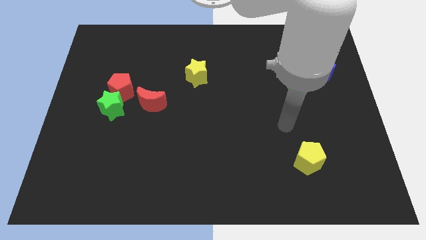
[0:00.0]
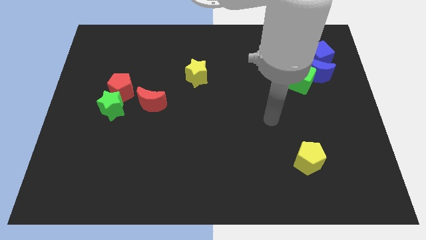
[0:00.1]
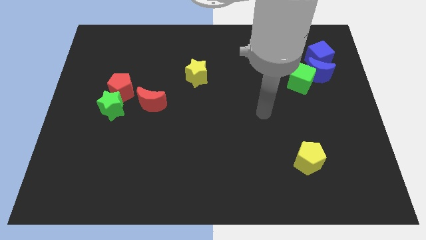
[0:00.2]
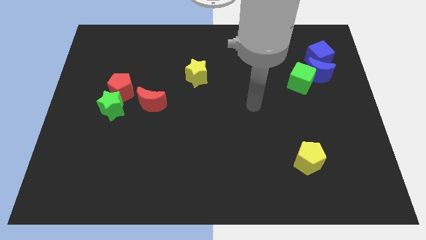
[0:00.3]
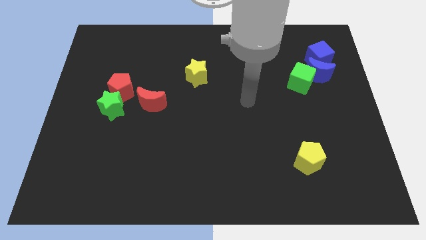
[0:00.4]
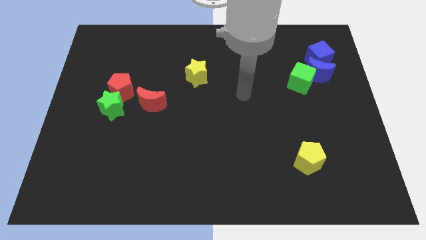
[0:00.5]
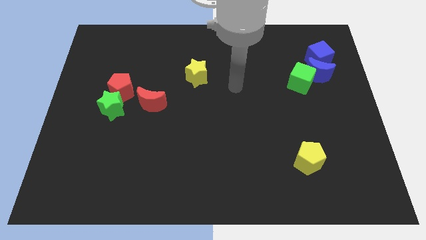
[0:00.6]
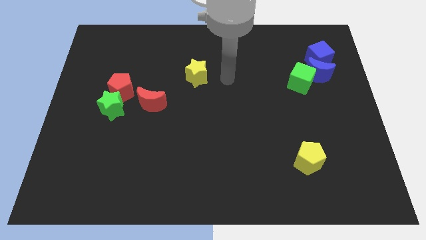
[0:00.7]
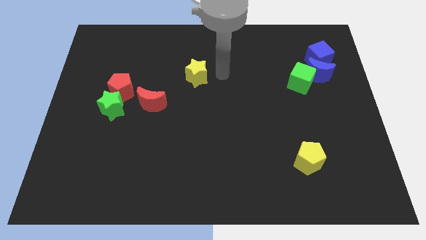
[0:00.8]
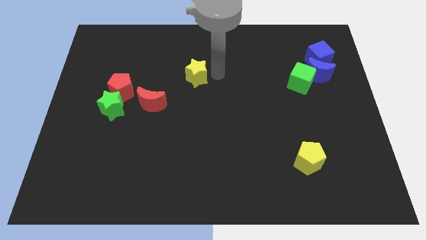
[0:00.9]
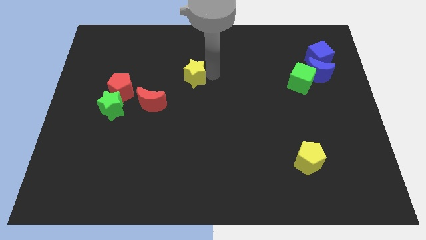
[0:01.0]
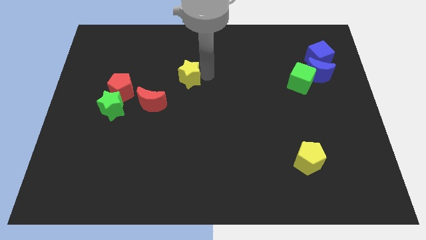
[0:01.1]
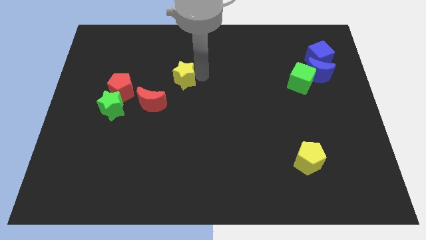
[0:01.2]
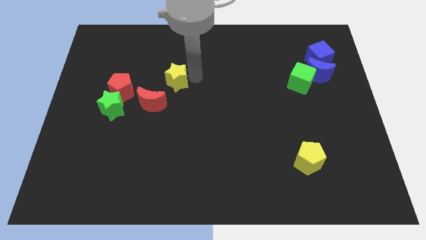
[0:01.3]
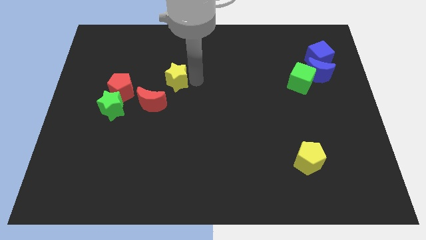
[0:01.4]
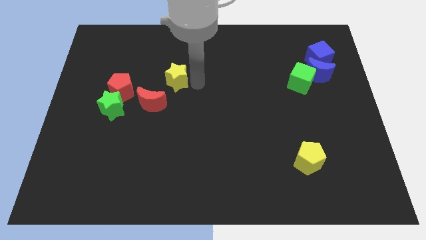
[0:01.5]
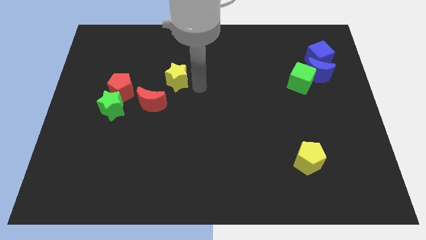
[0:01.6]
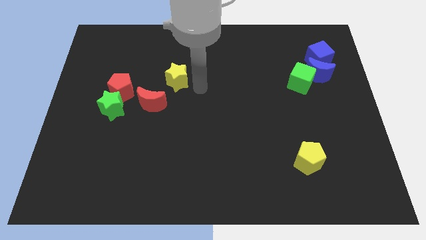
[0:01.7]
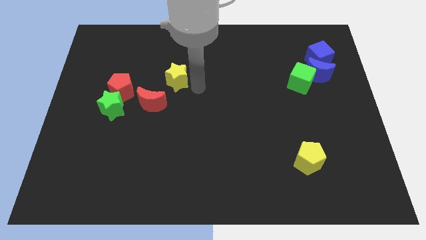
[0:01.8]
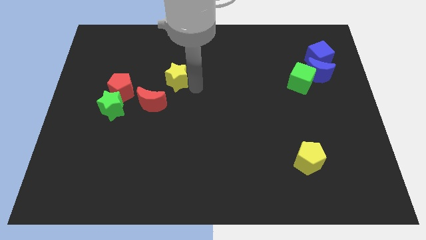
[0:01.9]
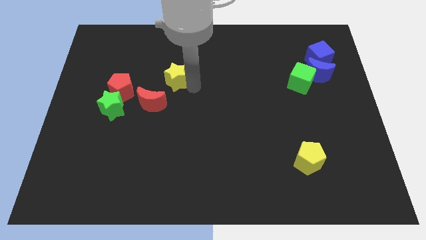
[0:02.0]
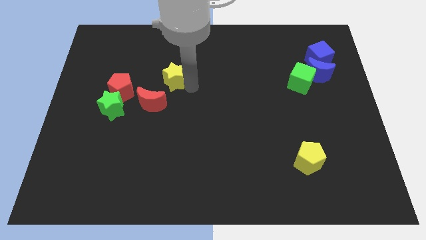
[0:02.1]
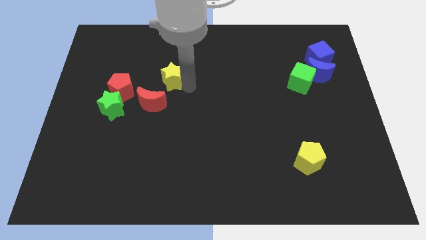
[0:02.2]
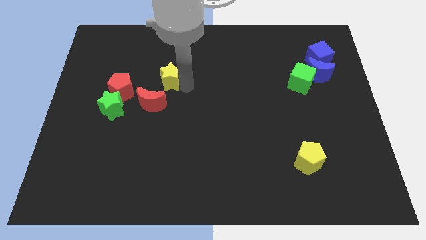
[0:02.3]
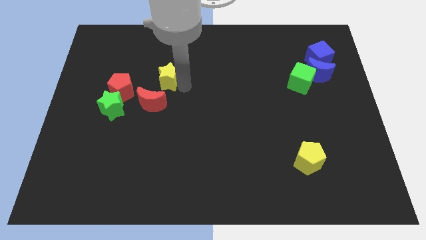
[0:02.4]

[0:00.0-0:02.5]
move the yellow star somewhat to the left

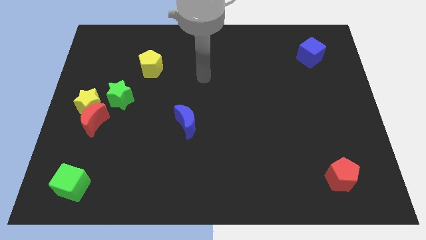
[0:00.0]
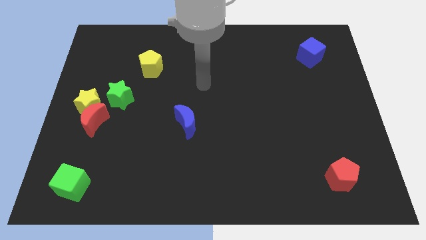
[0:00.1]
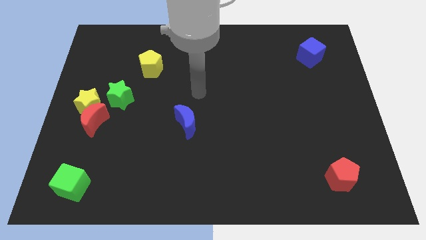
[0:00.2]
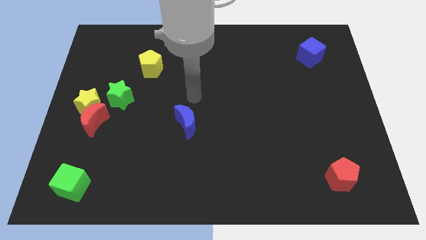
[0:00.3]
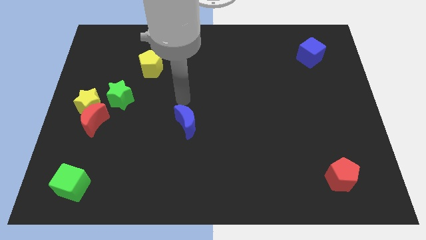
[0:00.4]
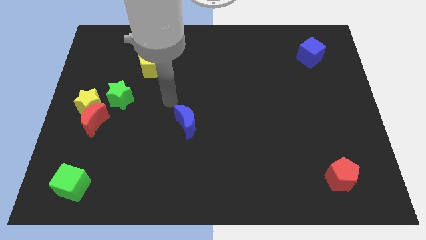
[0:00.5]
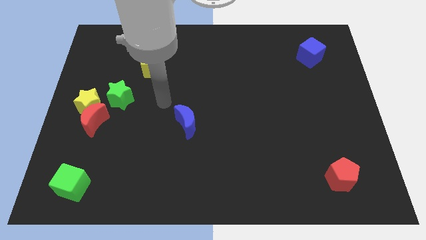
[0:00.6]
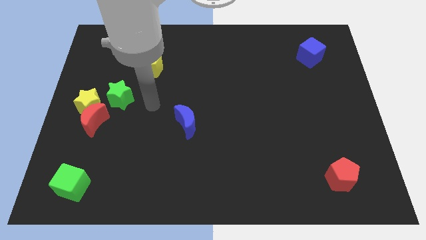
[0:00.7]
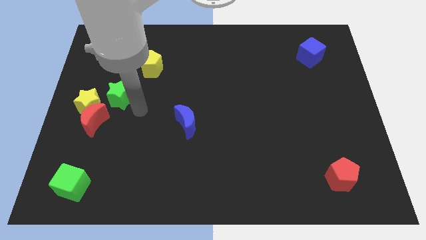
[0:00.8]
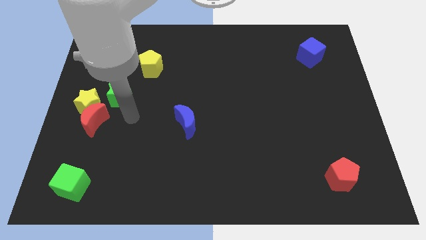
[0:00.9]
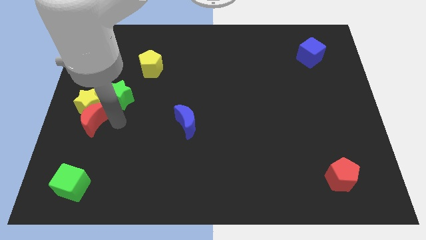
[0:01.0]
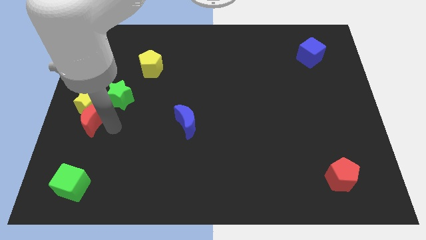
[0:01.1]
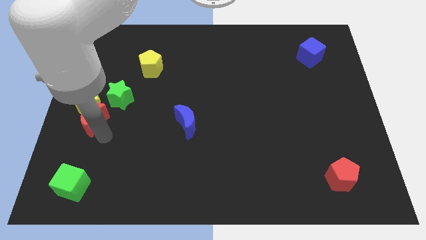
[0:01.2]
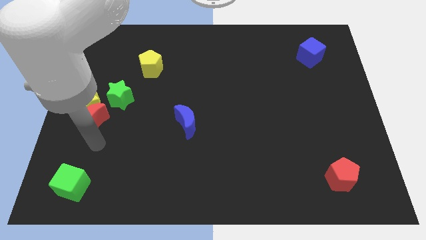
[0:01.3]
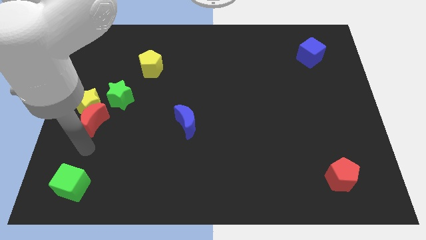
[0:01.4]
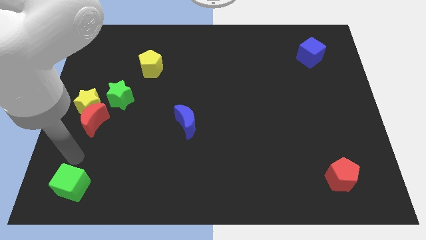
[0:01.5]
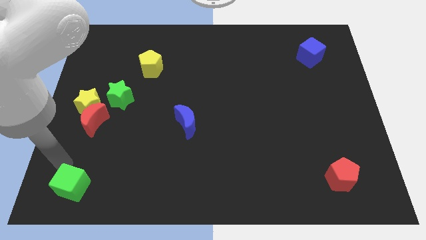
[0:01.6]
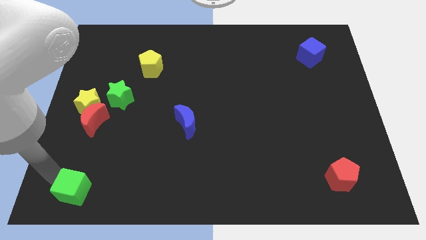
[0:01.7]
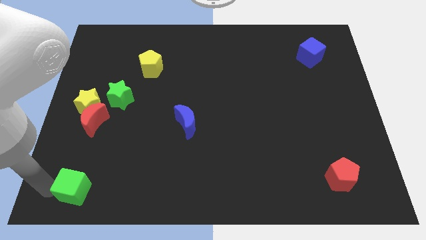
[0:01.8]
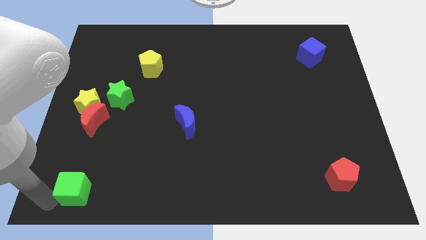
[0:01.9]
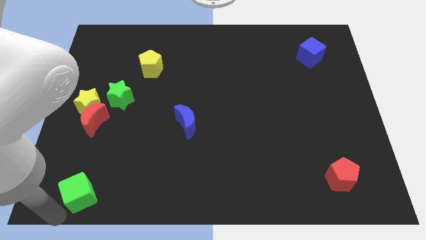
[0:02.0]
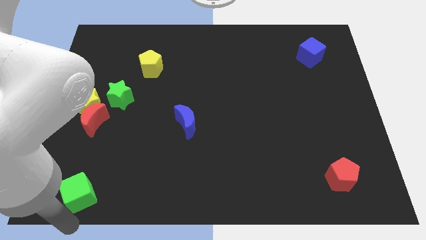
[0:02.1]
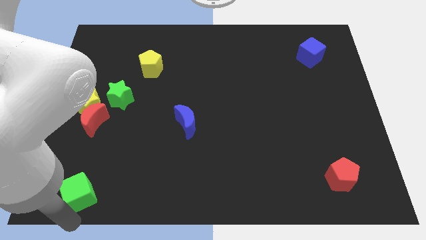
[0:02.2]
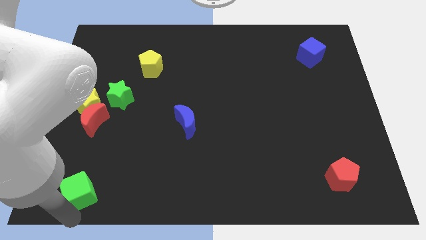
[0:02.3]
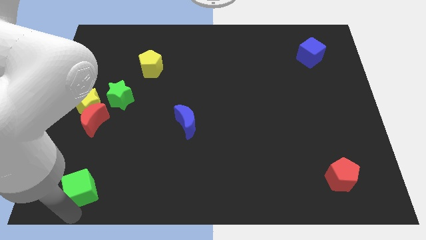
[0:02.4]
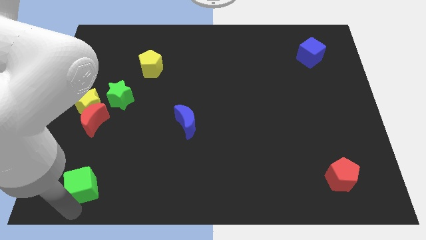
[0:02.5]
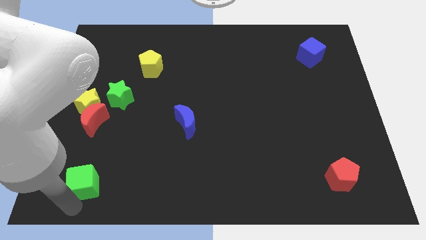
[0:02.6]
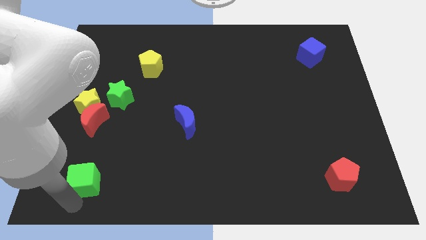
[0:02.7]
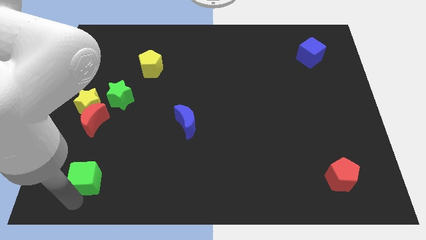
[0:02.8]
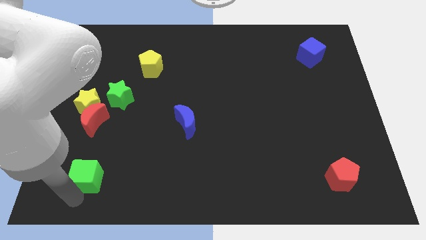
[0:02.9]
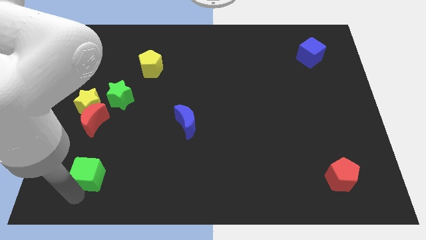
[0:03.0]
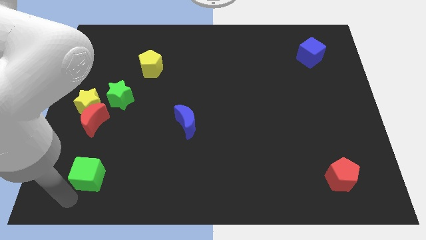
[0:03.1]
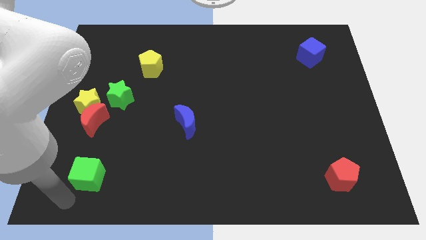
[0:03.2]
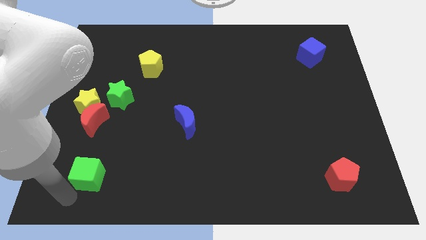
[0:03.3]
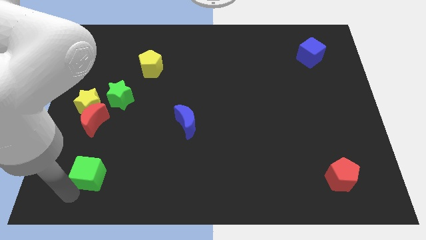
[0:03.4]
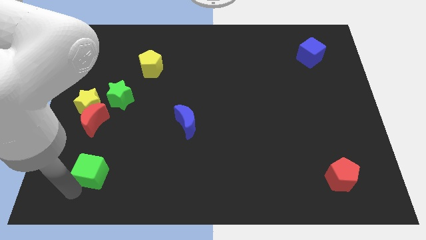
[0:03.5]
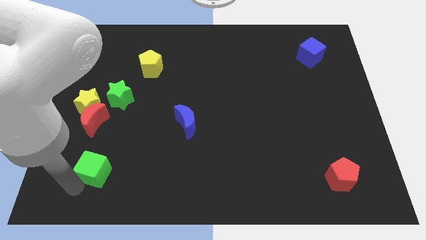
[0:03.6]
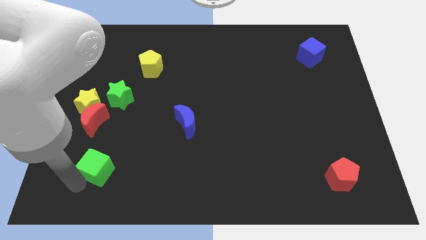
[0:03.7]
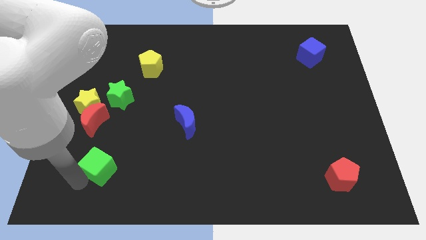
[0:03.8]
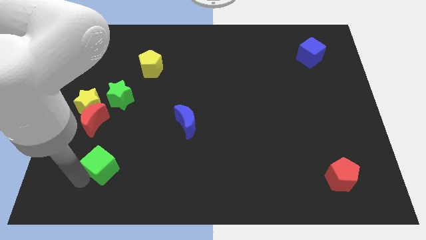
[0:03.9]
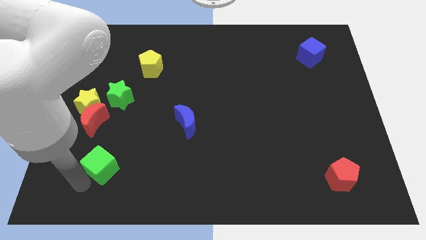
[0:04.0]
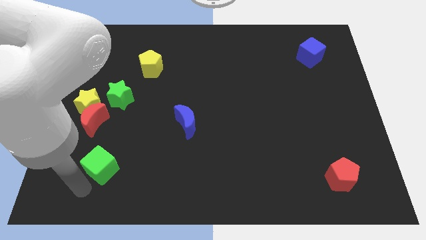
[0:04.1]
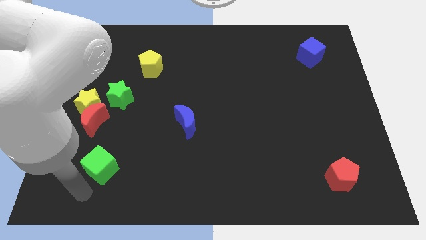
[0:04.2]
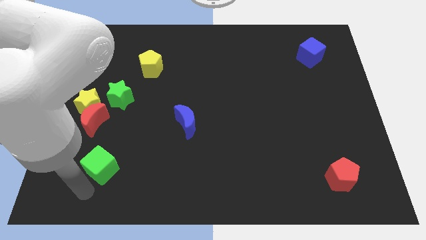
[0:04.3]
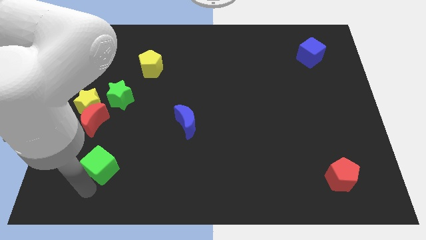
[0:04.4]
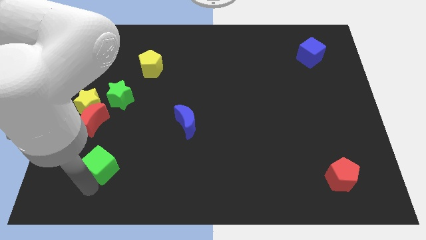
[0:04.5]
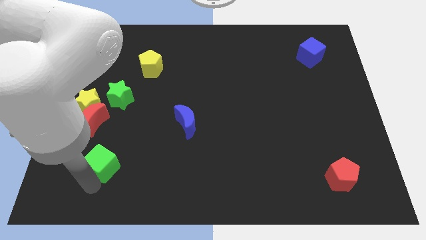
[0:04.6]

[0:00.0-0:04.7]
slide the green cube up and right a little bit

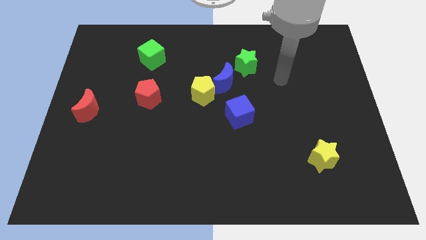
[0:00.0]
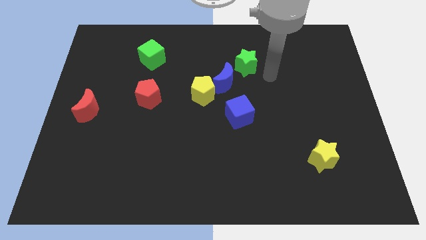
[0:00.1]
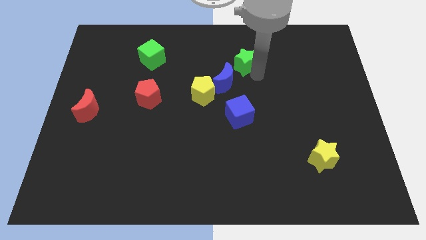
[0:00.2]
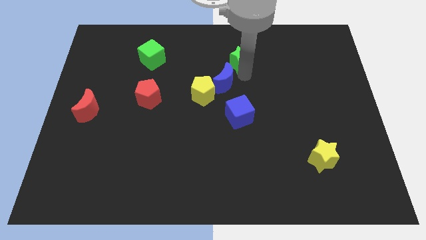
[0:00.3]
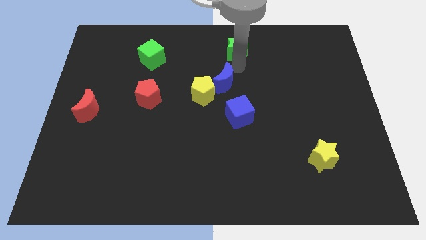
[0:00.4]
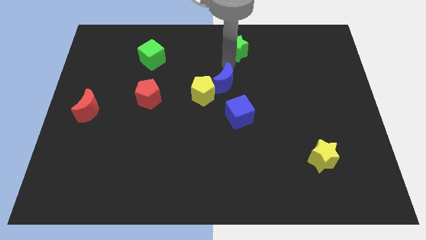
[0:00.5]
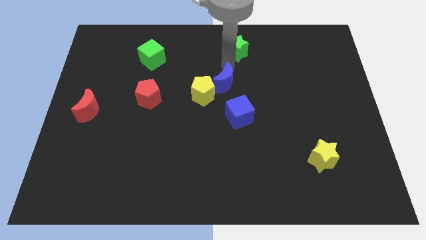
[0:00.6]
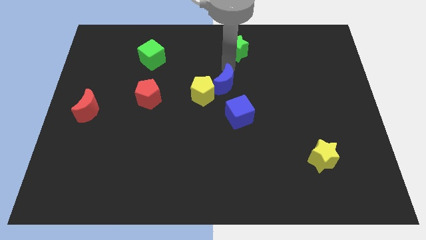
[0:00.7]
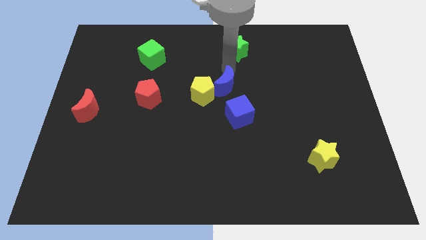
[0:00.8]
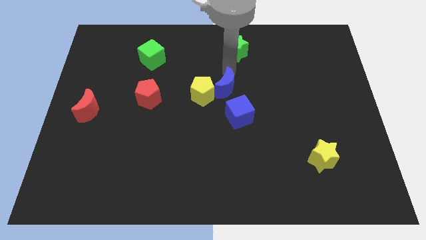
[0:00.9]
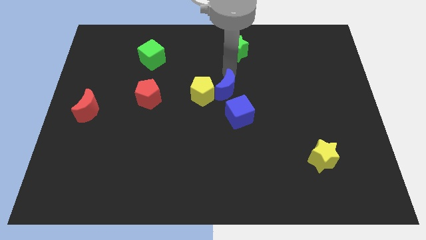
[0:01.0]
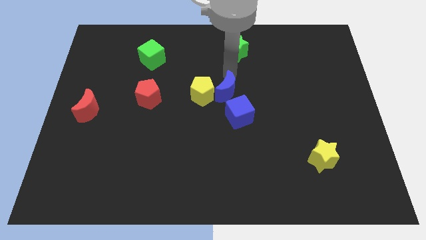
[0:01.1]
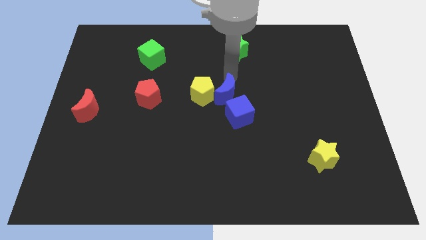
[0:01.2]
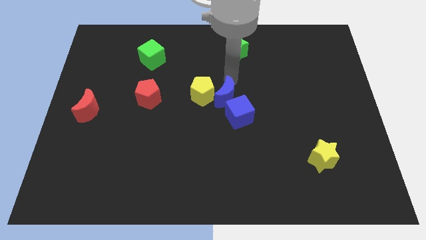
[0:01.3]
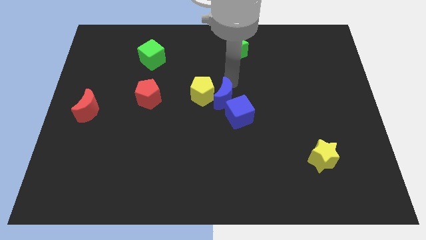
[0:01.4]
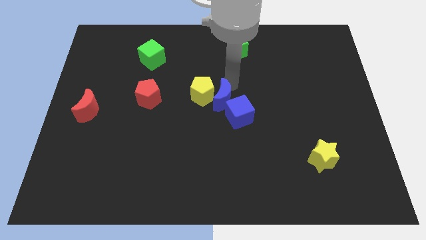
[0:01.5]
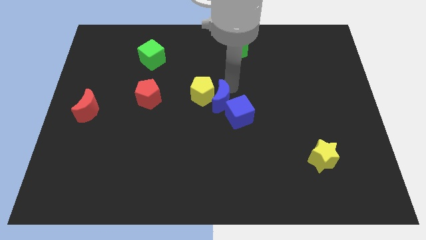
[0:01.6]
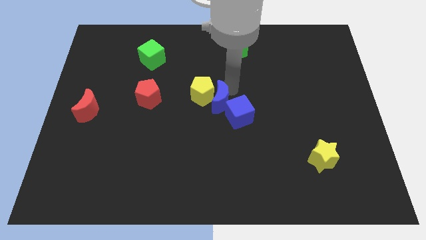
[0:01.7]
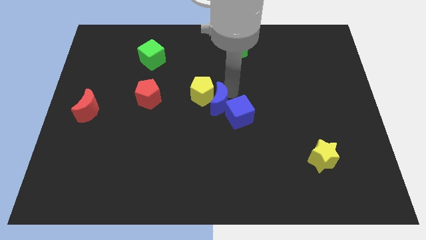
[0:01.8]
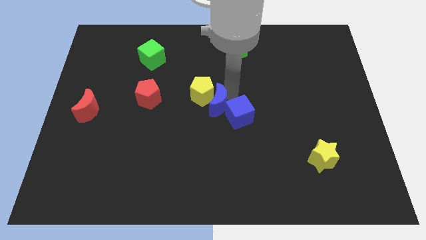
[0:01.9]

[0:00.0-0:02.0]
push the blue moon downwards somewhat
